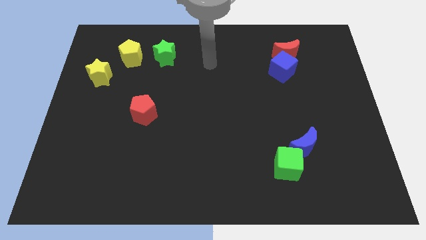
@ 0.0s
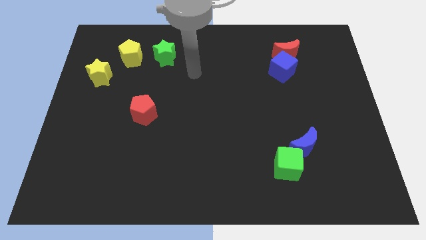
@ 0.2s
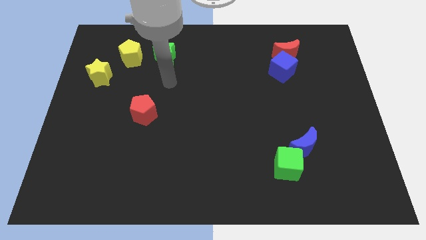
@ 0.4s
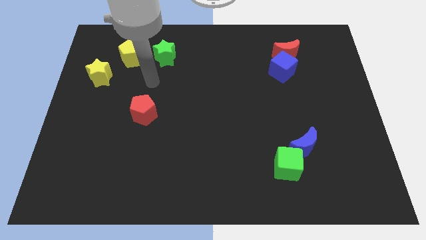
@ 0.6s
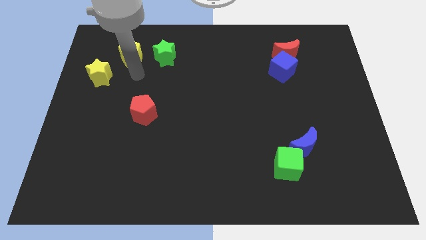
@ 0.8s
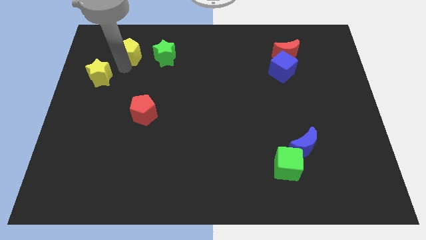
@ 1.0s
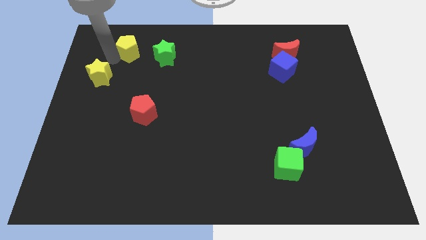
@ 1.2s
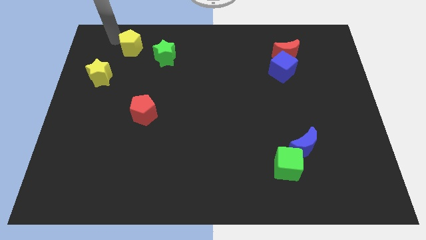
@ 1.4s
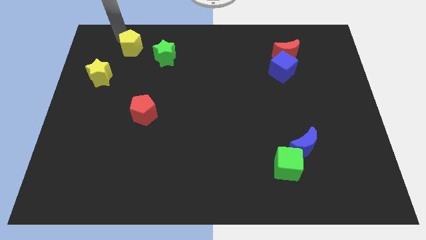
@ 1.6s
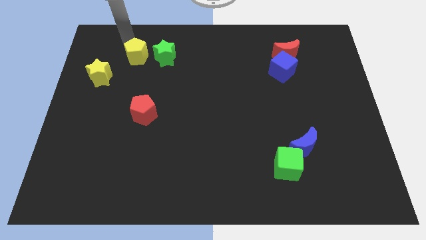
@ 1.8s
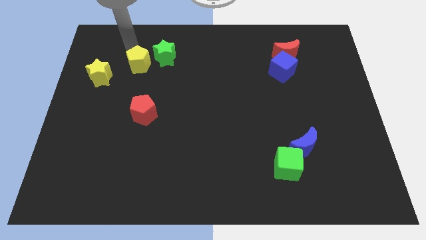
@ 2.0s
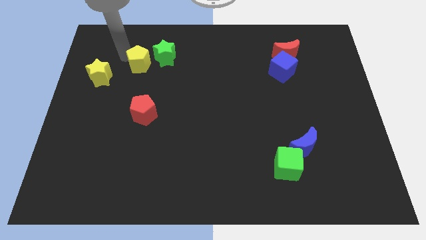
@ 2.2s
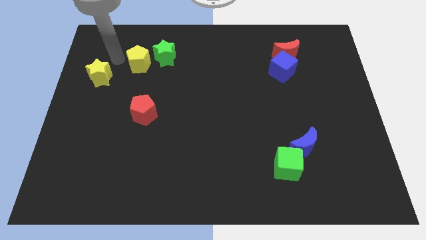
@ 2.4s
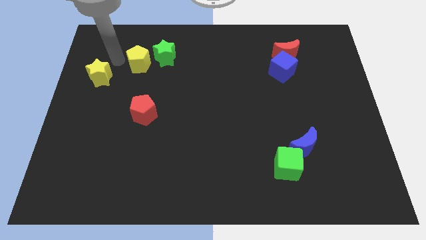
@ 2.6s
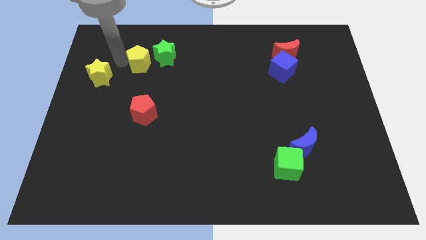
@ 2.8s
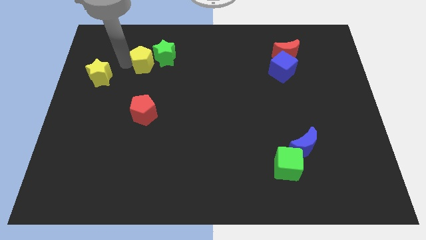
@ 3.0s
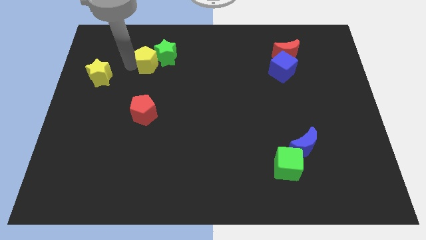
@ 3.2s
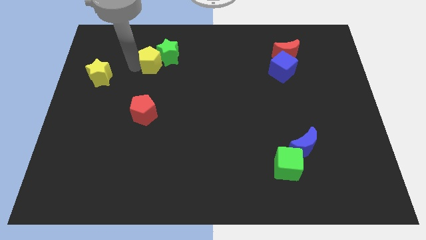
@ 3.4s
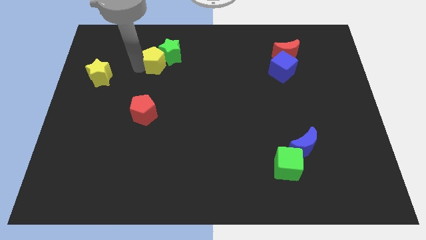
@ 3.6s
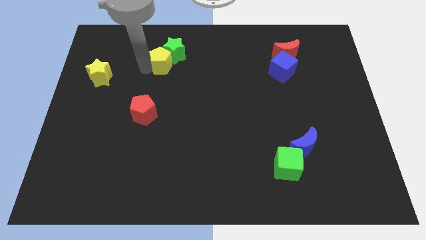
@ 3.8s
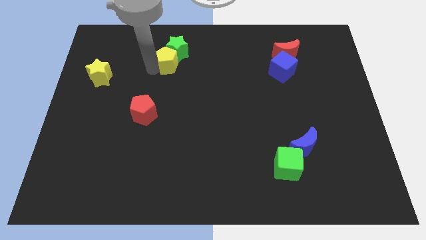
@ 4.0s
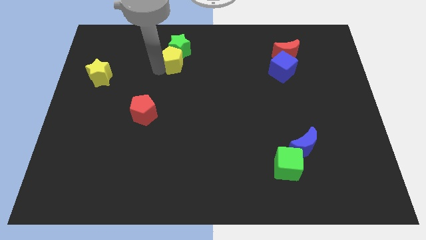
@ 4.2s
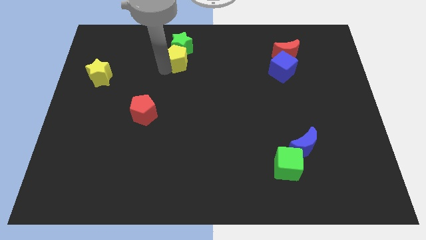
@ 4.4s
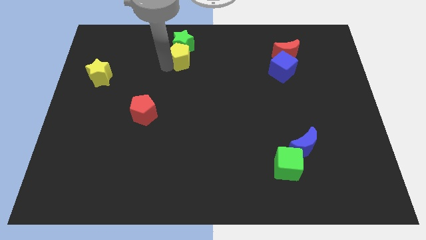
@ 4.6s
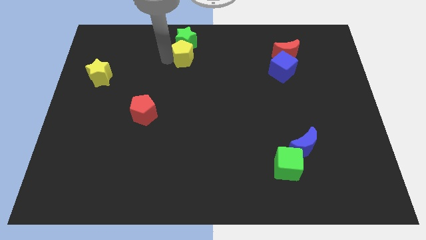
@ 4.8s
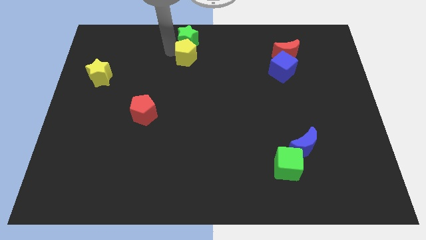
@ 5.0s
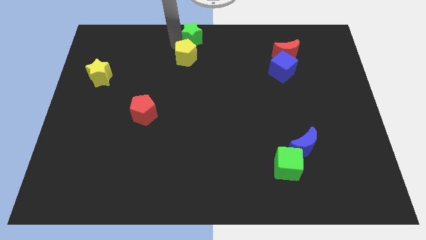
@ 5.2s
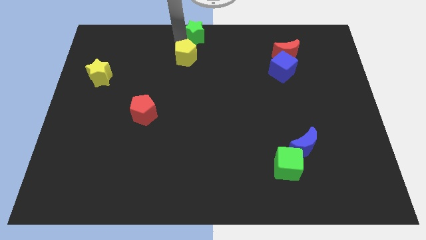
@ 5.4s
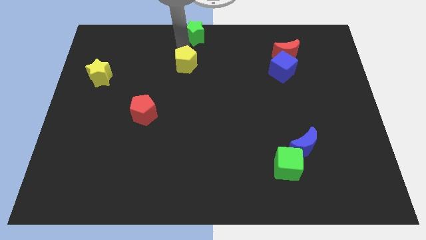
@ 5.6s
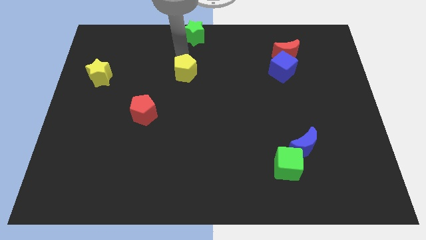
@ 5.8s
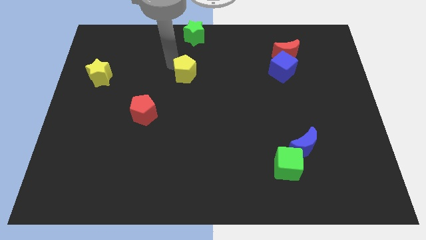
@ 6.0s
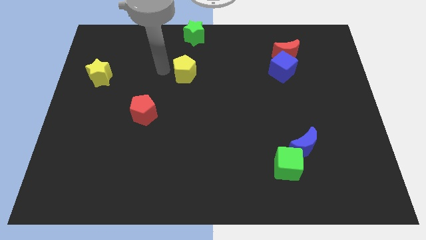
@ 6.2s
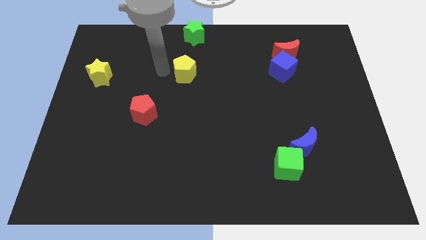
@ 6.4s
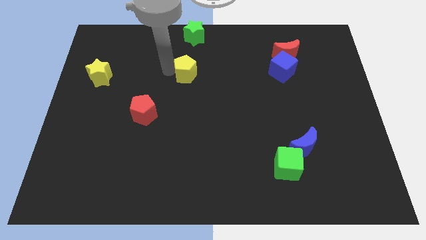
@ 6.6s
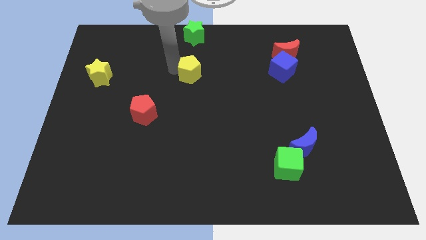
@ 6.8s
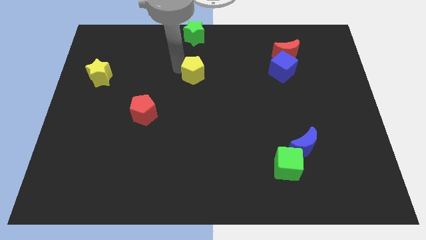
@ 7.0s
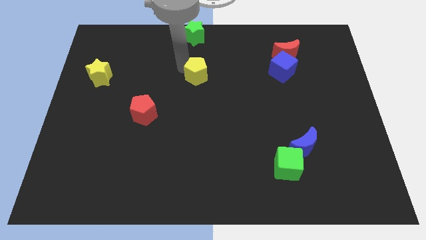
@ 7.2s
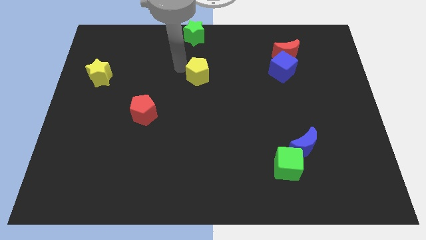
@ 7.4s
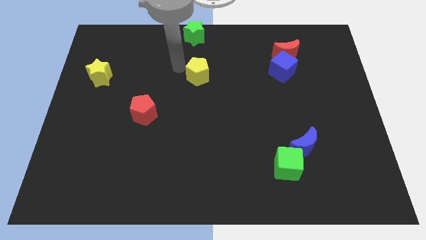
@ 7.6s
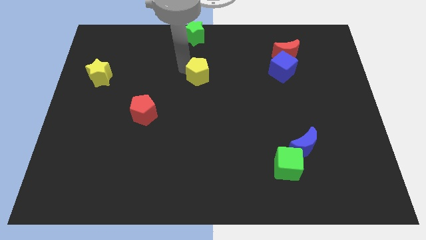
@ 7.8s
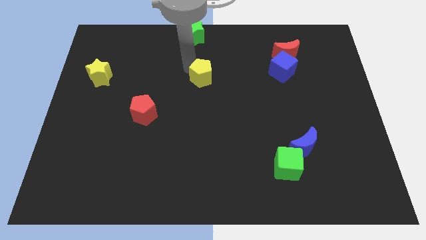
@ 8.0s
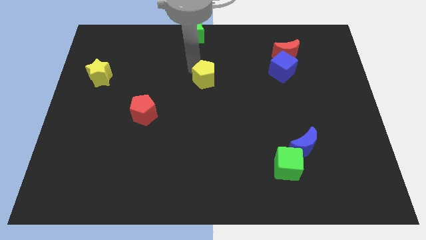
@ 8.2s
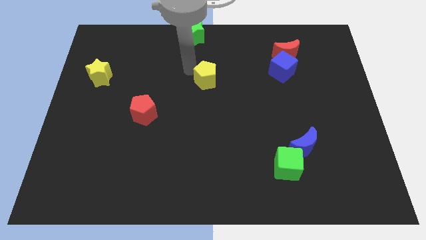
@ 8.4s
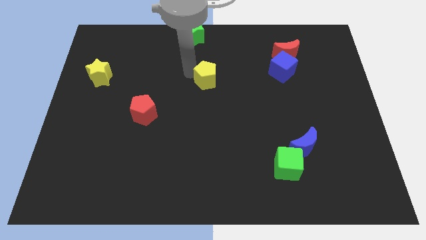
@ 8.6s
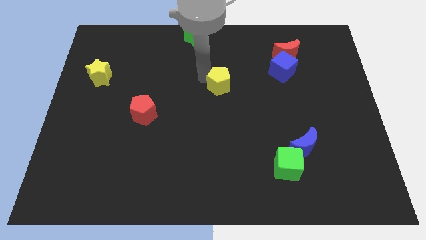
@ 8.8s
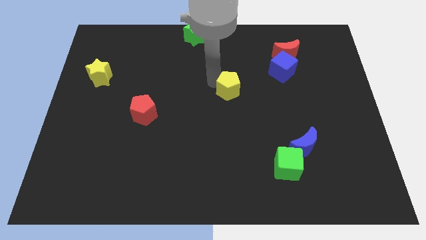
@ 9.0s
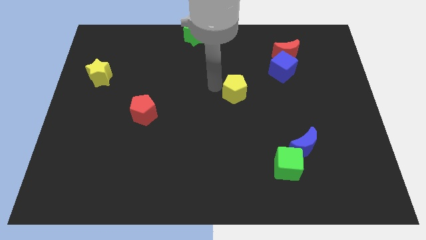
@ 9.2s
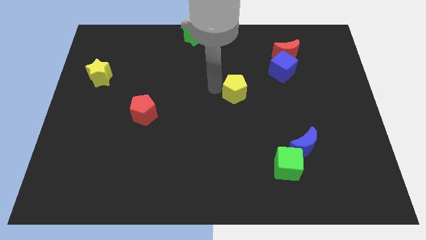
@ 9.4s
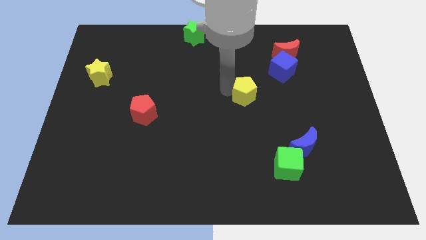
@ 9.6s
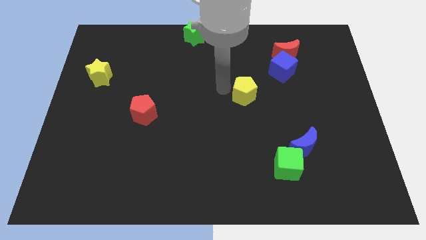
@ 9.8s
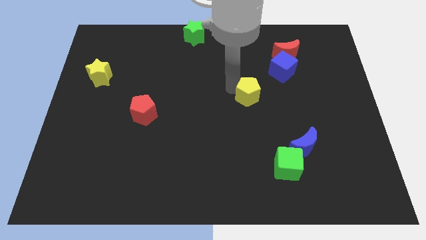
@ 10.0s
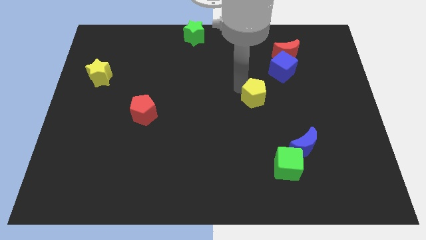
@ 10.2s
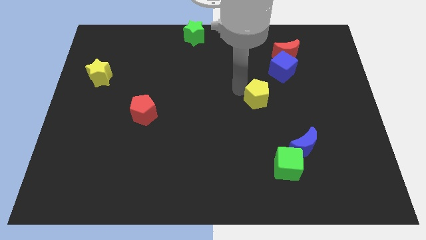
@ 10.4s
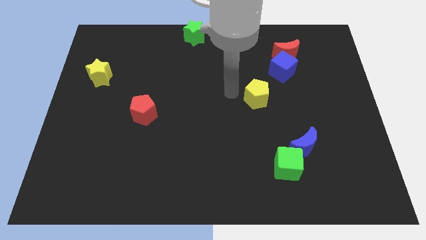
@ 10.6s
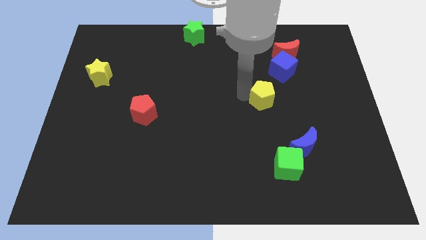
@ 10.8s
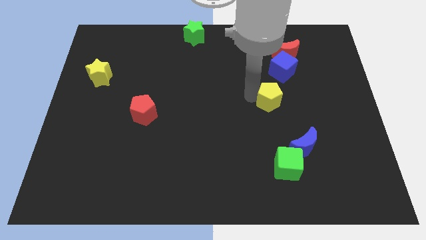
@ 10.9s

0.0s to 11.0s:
move the yellow pentagon below the blue cube

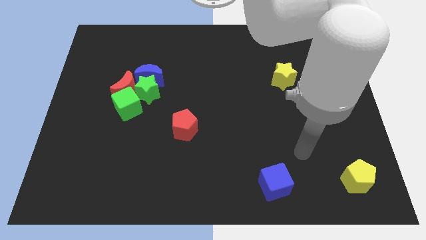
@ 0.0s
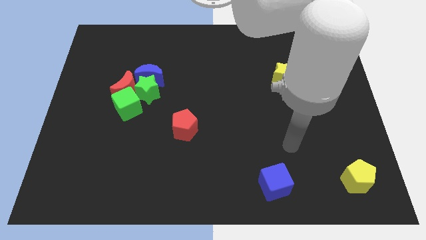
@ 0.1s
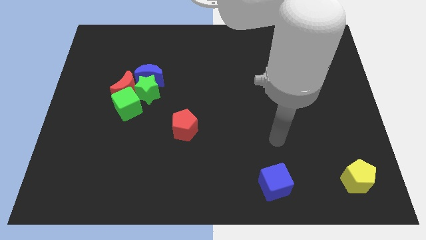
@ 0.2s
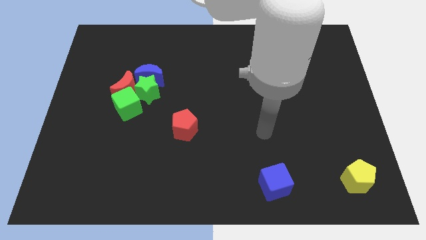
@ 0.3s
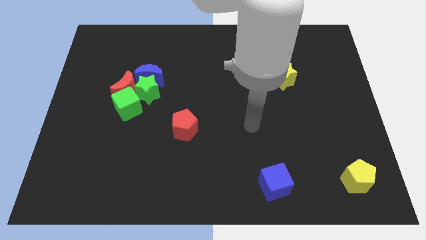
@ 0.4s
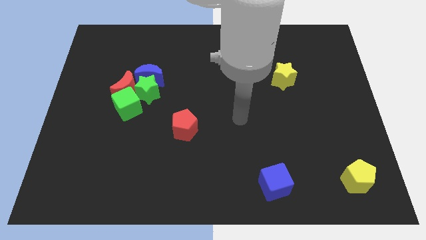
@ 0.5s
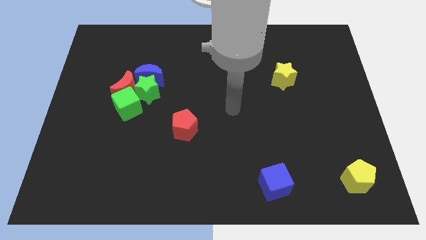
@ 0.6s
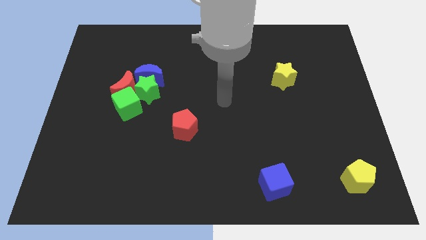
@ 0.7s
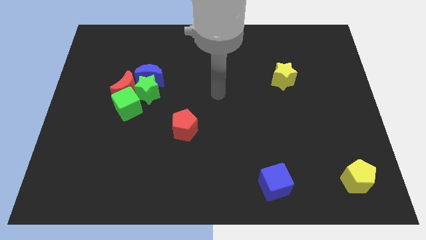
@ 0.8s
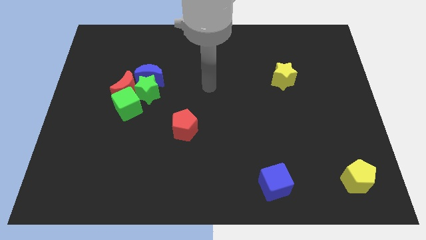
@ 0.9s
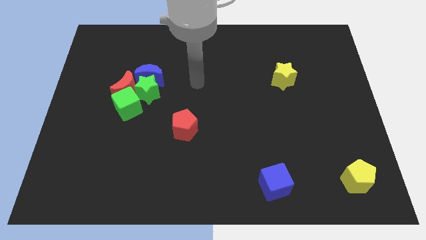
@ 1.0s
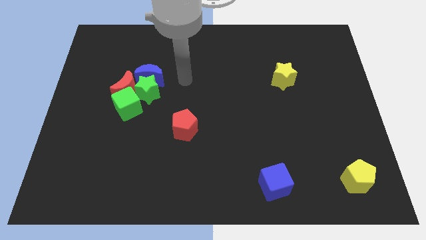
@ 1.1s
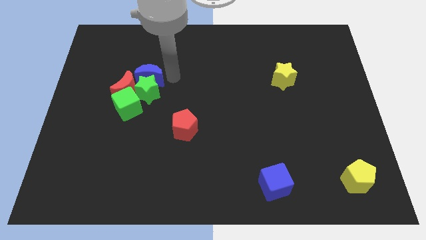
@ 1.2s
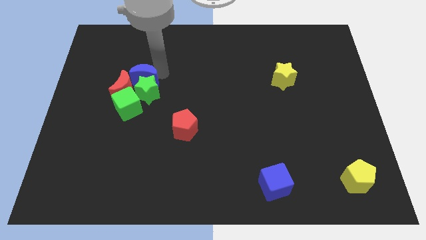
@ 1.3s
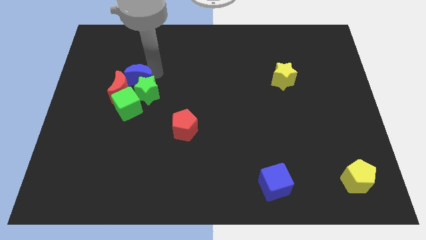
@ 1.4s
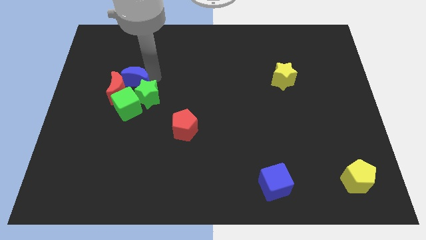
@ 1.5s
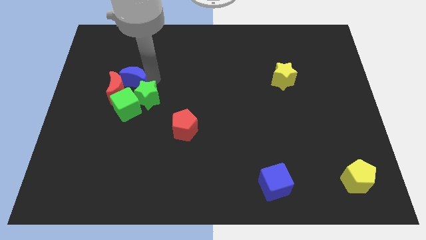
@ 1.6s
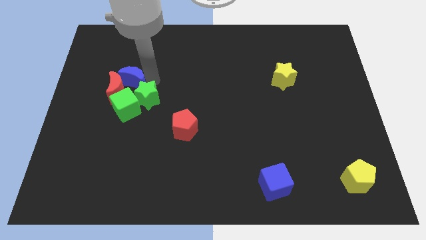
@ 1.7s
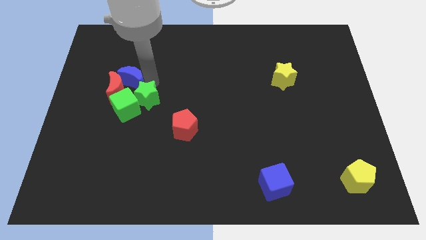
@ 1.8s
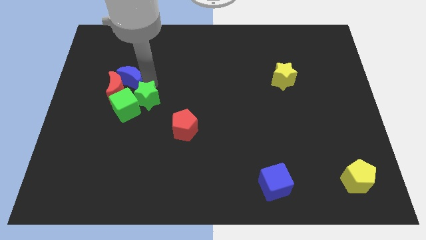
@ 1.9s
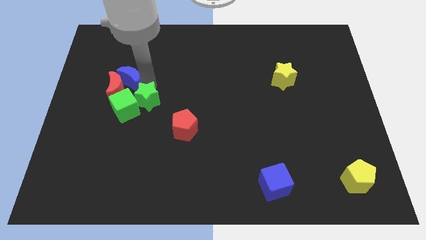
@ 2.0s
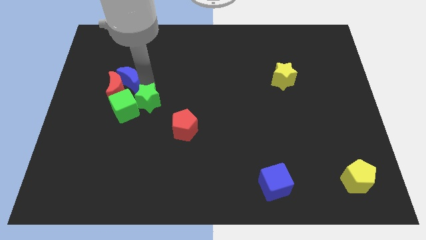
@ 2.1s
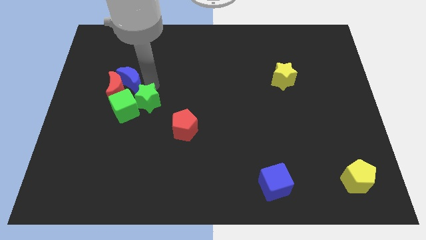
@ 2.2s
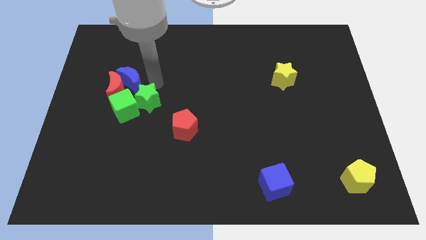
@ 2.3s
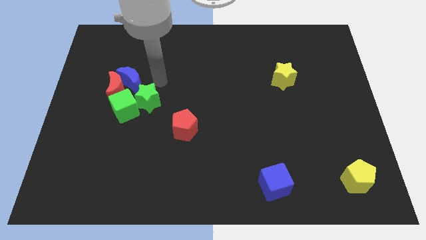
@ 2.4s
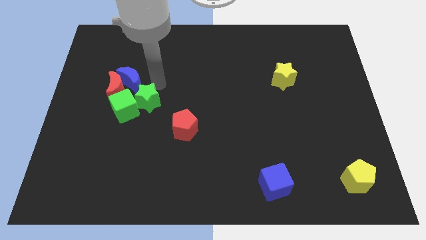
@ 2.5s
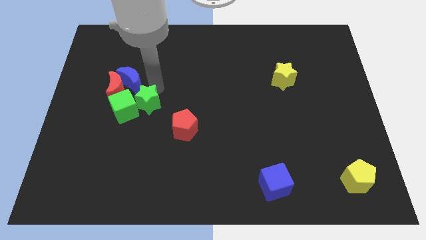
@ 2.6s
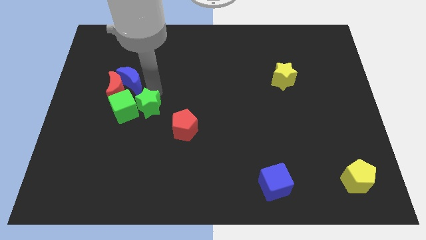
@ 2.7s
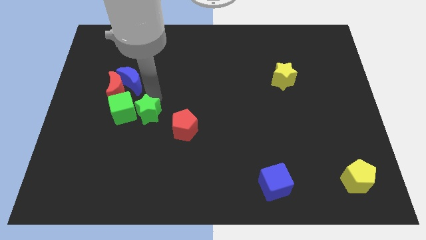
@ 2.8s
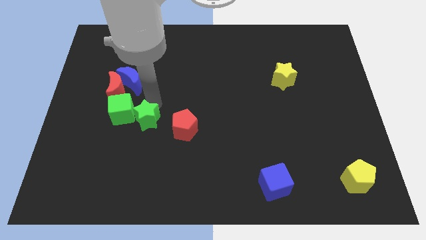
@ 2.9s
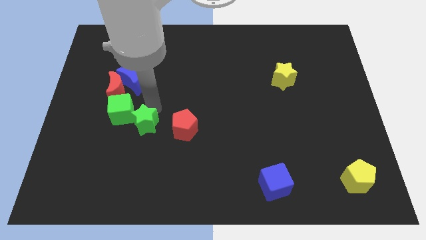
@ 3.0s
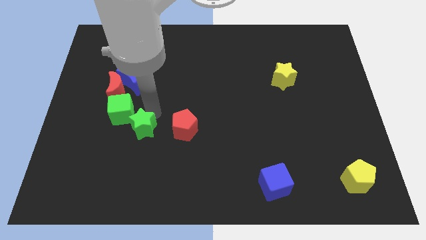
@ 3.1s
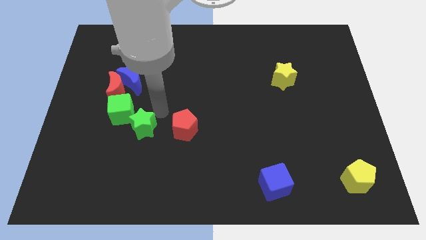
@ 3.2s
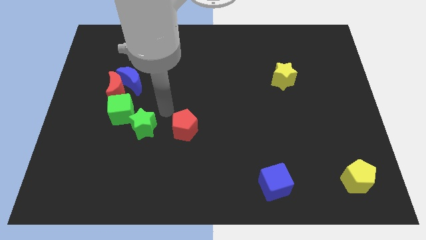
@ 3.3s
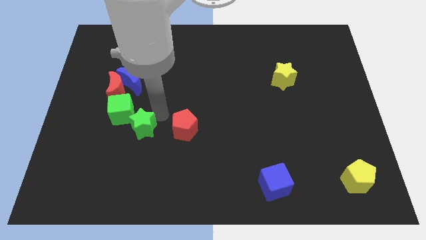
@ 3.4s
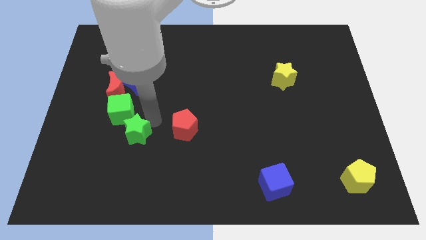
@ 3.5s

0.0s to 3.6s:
put the green star to the bottom of the green cube

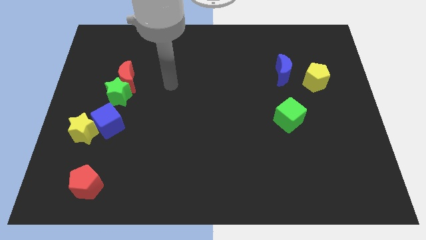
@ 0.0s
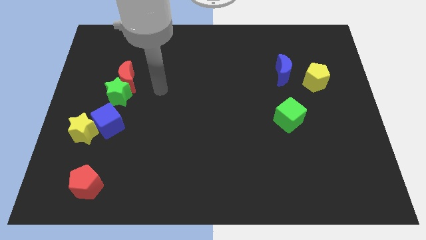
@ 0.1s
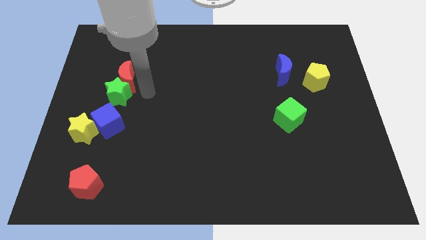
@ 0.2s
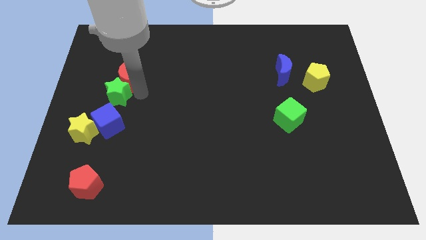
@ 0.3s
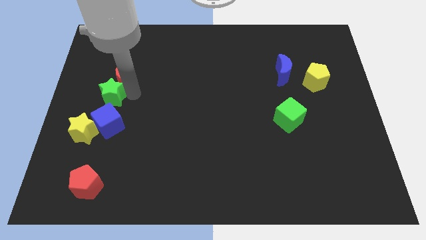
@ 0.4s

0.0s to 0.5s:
slide the green star to the top side of the yellow star
